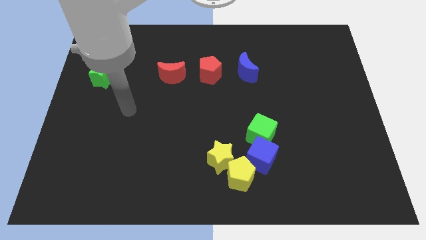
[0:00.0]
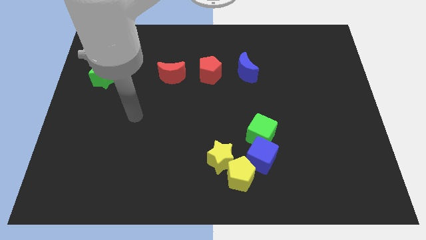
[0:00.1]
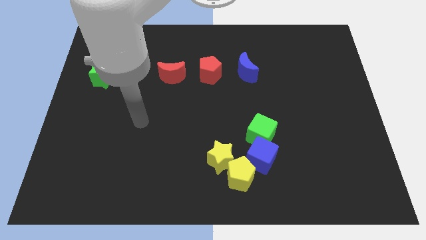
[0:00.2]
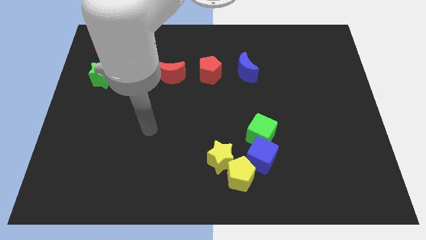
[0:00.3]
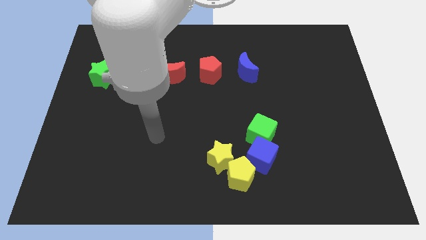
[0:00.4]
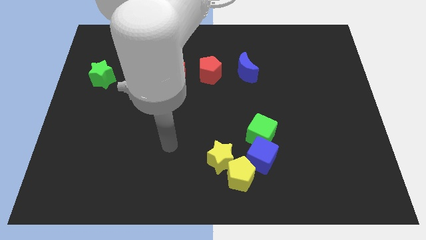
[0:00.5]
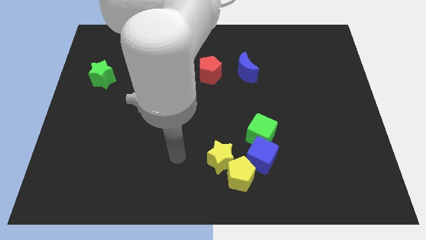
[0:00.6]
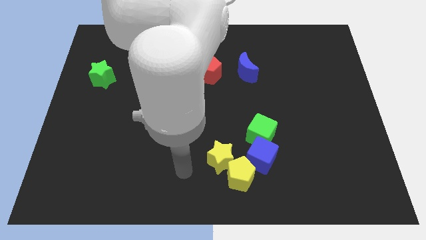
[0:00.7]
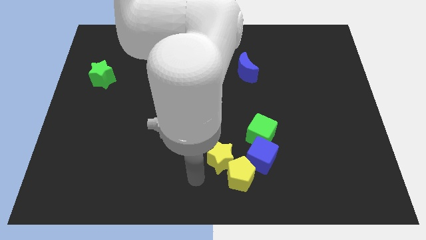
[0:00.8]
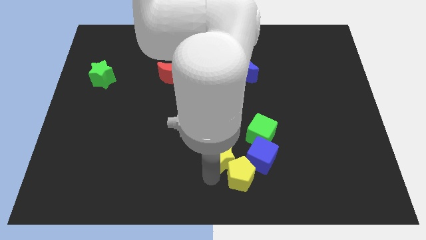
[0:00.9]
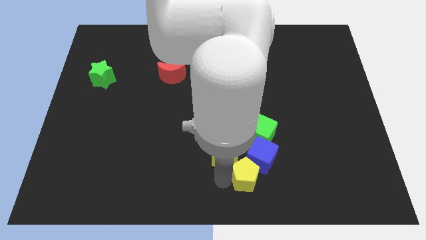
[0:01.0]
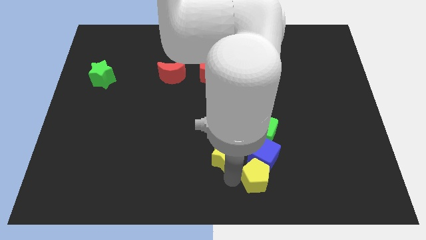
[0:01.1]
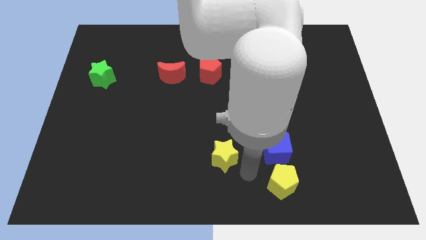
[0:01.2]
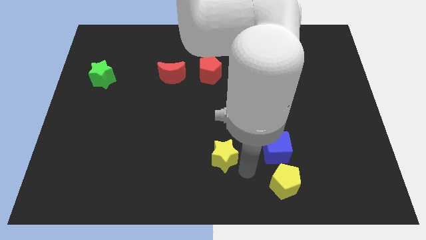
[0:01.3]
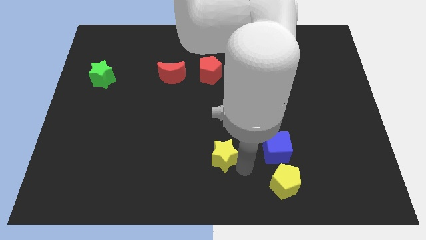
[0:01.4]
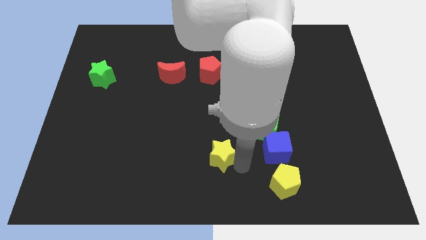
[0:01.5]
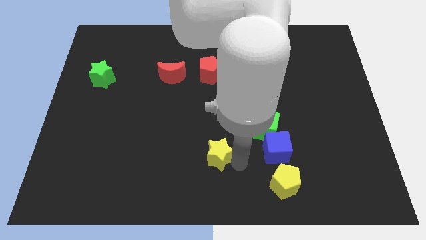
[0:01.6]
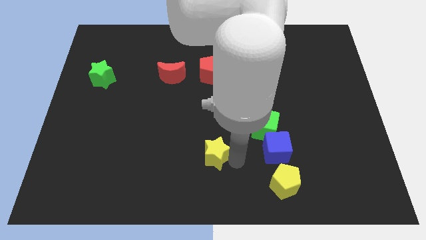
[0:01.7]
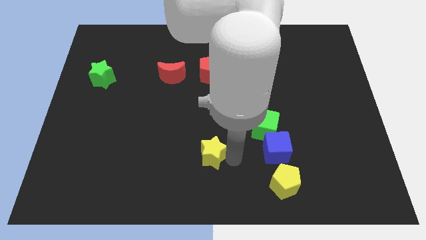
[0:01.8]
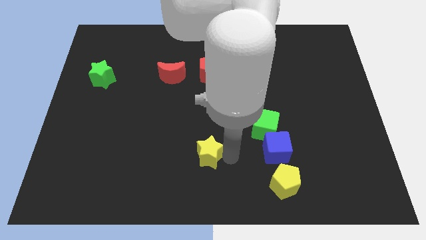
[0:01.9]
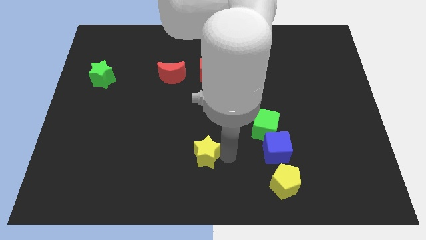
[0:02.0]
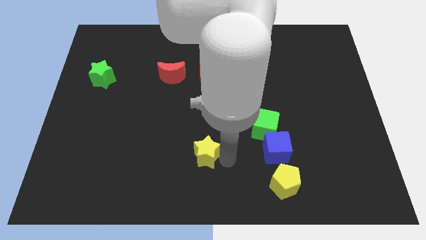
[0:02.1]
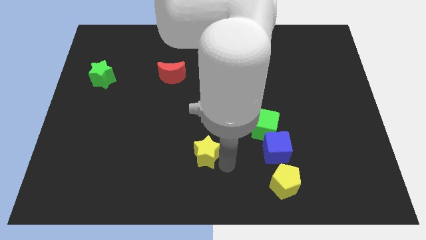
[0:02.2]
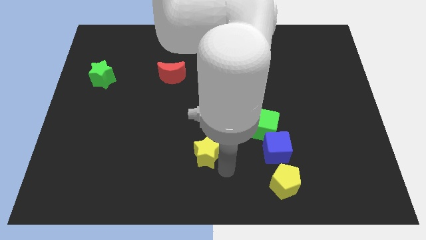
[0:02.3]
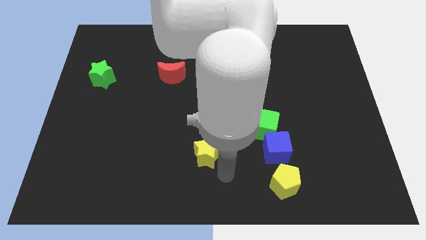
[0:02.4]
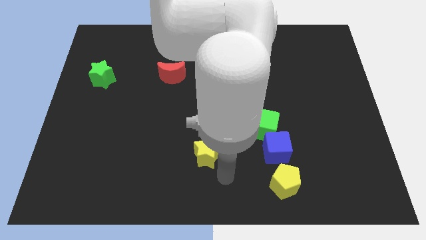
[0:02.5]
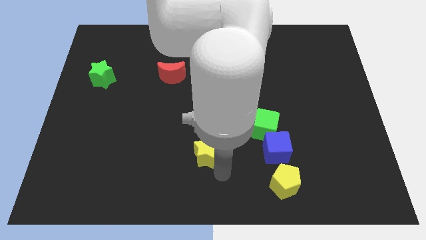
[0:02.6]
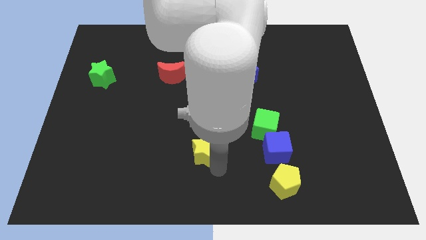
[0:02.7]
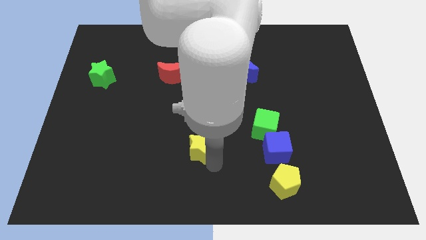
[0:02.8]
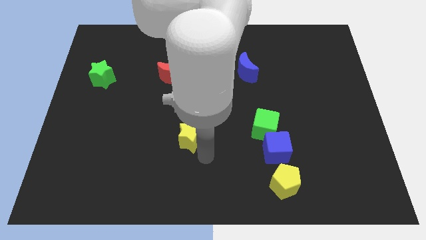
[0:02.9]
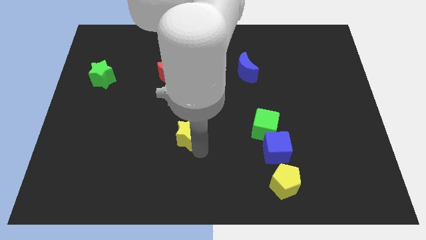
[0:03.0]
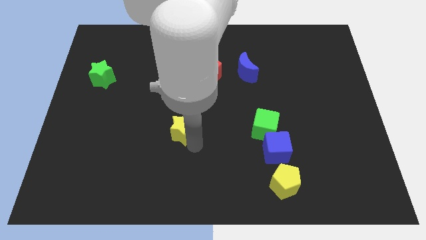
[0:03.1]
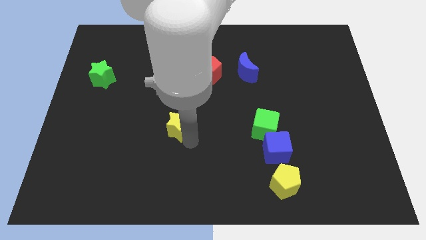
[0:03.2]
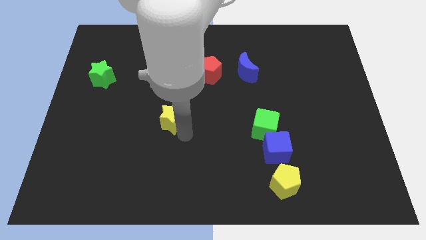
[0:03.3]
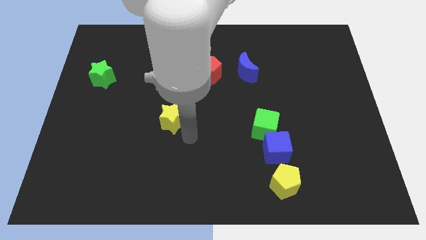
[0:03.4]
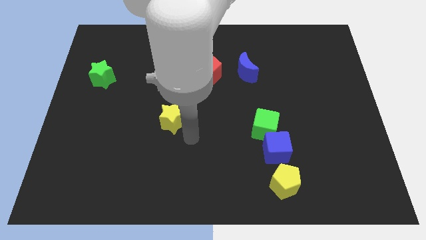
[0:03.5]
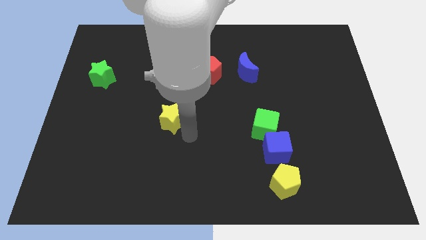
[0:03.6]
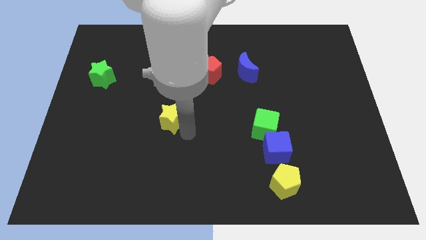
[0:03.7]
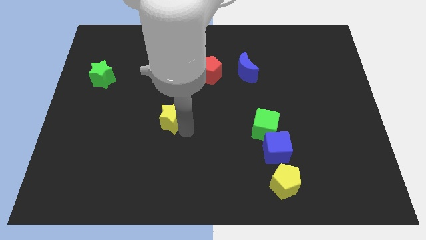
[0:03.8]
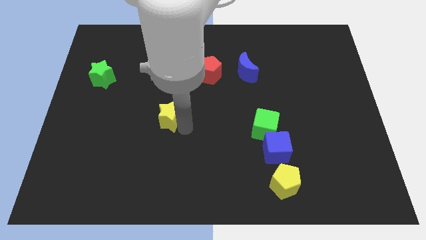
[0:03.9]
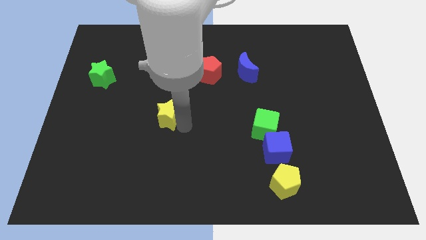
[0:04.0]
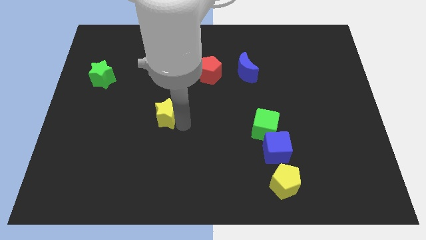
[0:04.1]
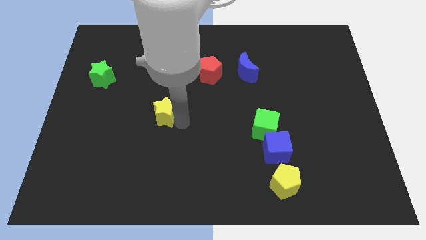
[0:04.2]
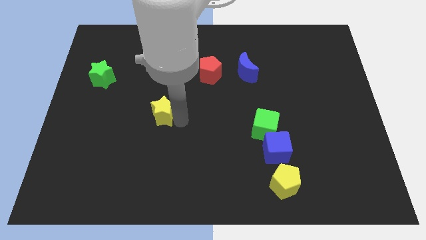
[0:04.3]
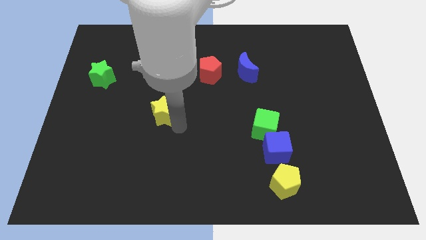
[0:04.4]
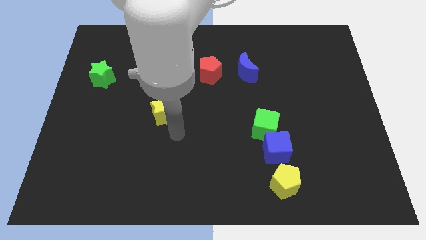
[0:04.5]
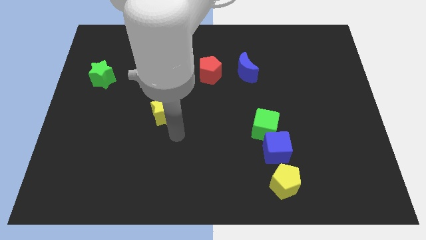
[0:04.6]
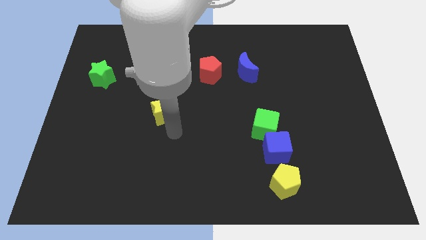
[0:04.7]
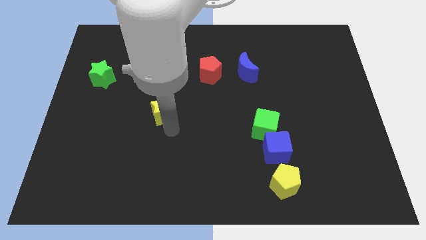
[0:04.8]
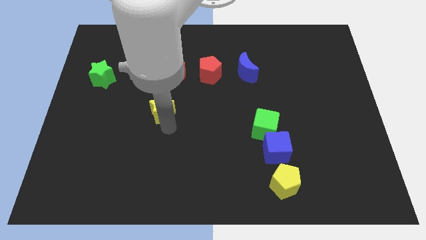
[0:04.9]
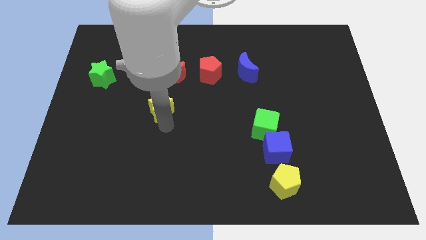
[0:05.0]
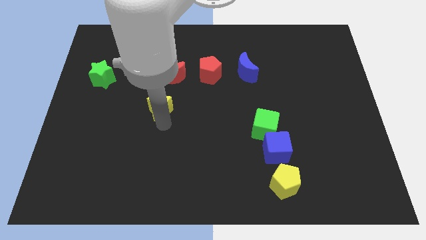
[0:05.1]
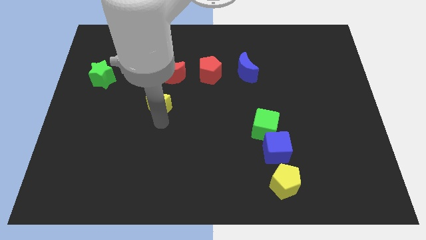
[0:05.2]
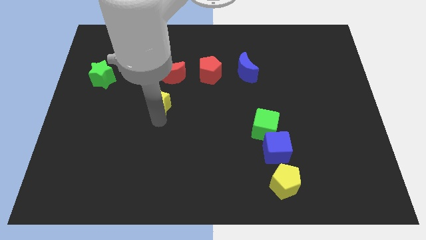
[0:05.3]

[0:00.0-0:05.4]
put the yellow star diagonally down and to the left of the red moon

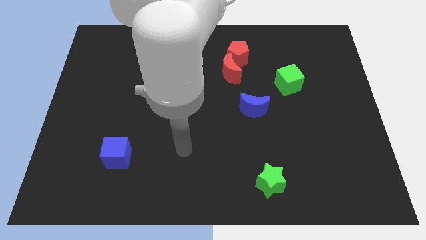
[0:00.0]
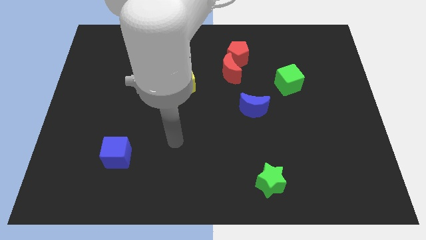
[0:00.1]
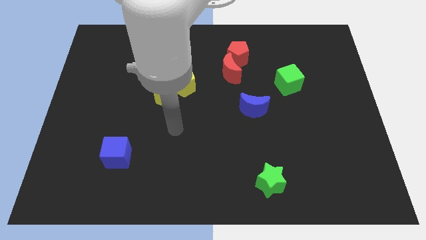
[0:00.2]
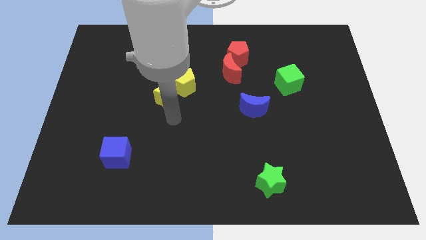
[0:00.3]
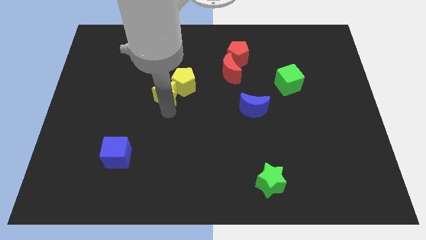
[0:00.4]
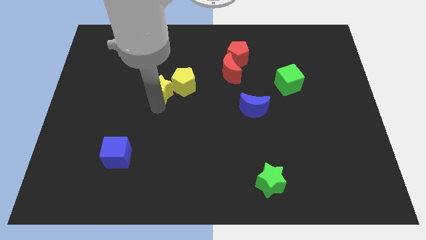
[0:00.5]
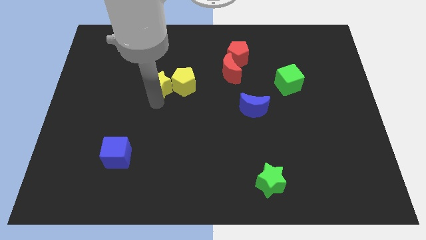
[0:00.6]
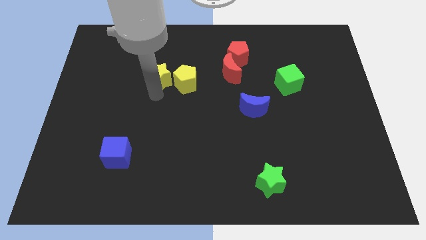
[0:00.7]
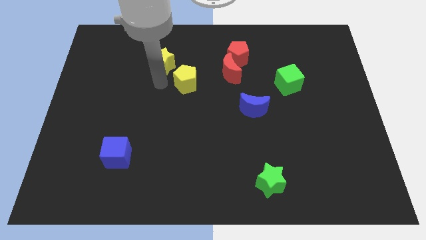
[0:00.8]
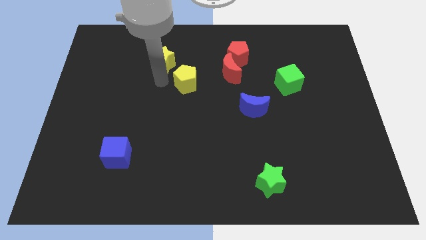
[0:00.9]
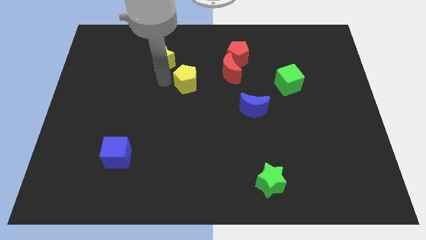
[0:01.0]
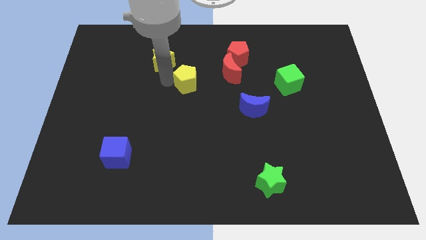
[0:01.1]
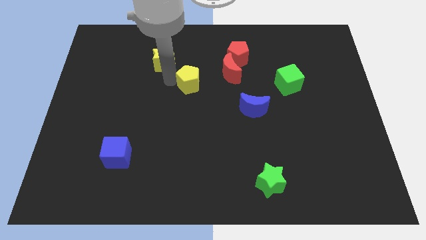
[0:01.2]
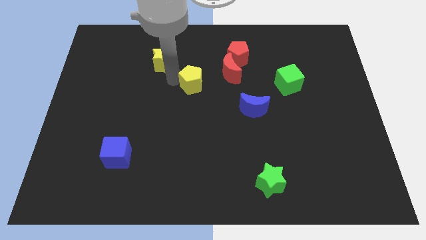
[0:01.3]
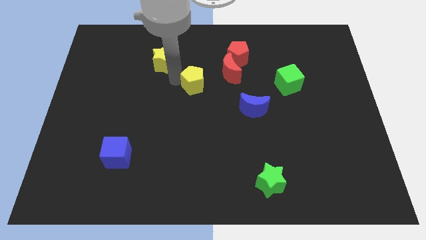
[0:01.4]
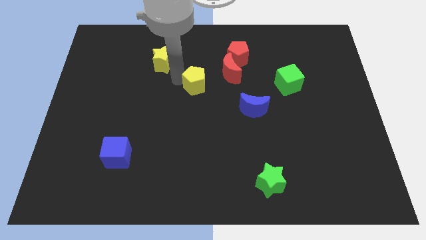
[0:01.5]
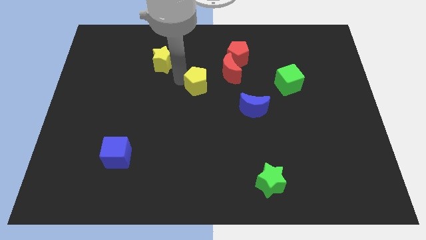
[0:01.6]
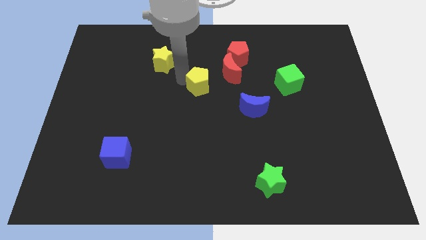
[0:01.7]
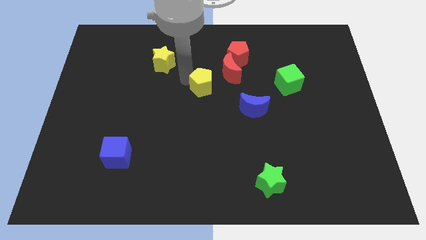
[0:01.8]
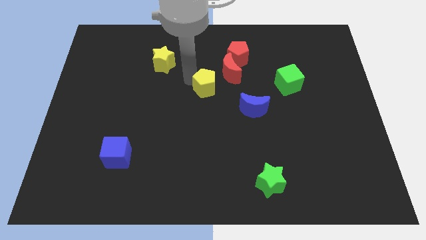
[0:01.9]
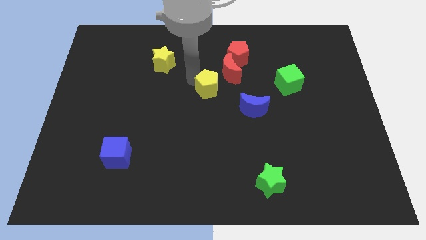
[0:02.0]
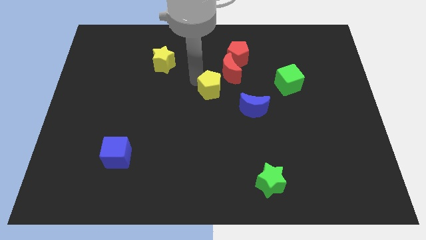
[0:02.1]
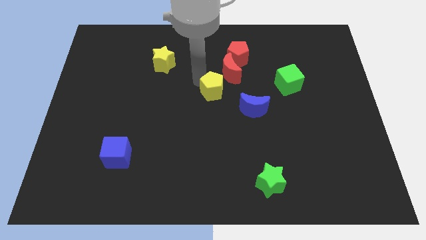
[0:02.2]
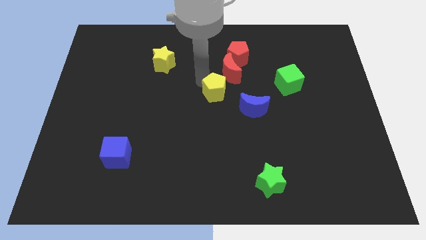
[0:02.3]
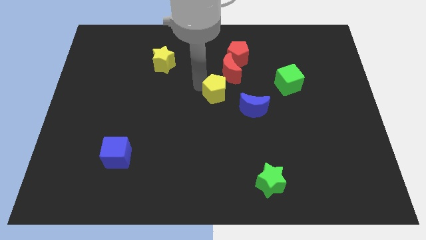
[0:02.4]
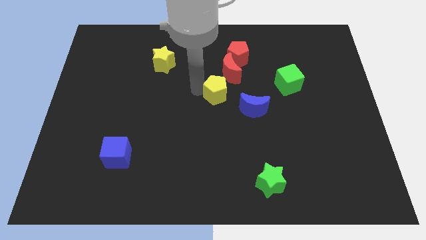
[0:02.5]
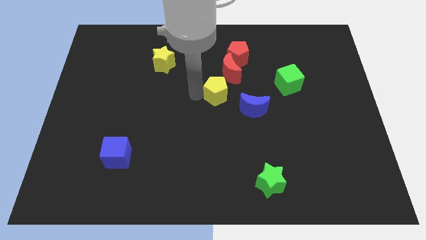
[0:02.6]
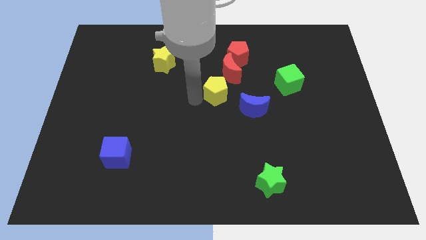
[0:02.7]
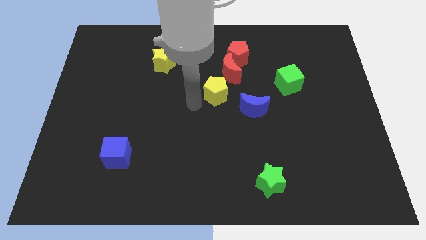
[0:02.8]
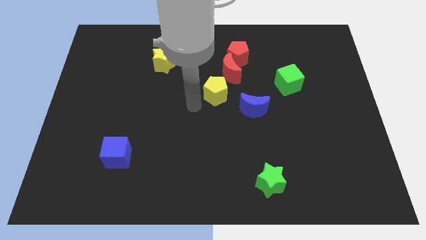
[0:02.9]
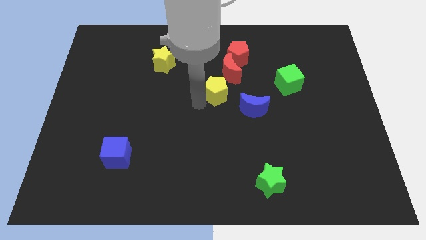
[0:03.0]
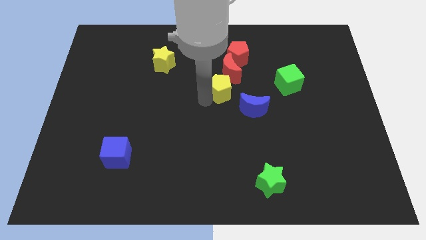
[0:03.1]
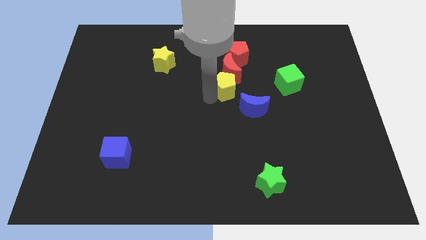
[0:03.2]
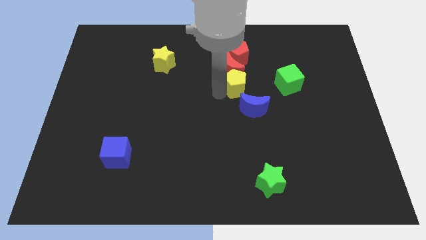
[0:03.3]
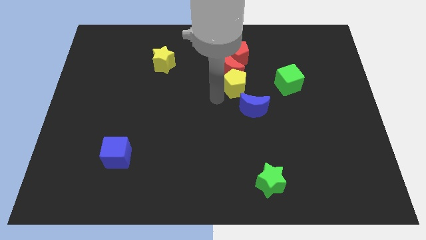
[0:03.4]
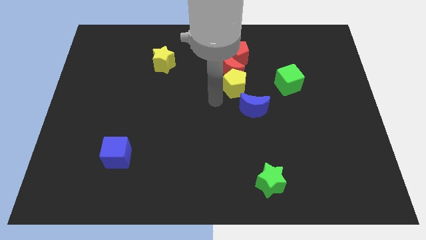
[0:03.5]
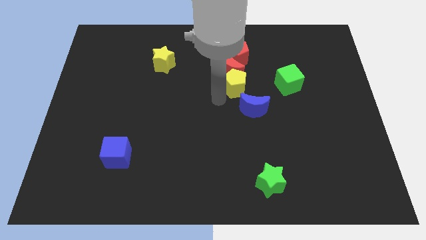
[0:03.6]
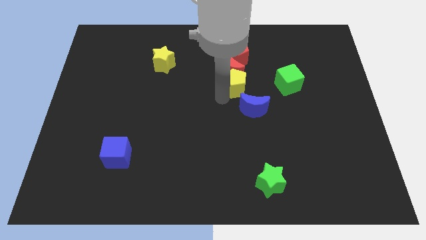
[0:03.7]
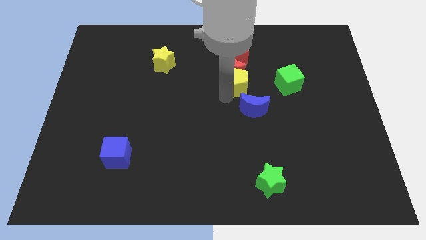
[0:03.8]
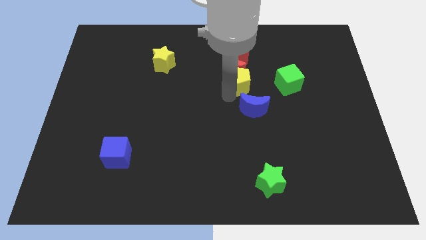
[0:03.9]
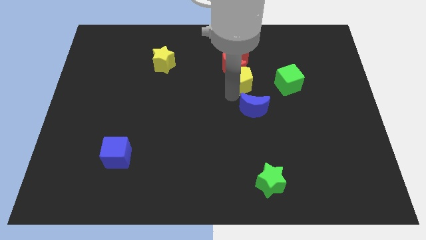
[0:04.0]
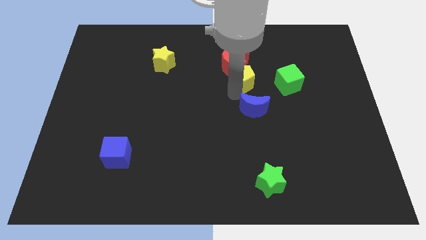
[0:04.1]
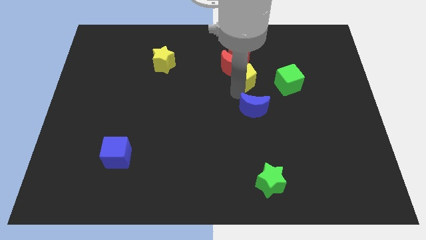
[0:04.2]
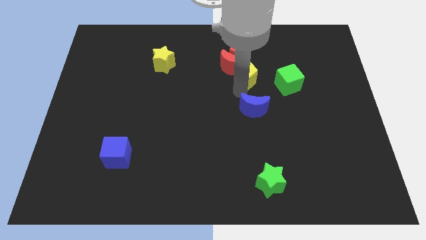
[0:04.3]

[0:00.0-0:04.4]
put the yellow pentagon diagonally down and to the right of the red pentagon
